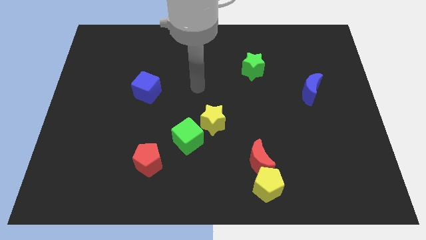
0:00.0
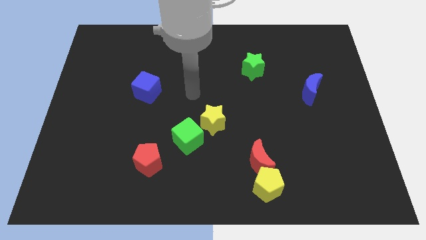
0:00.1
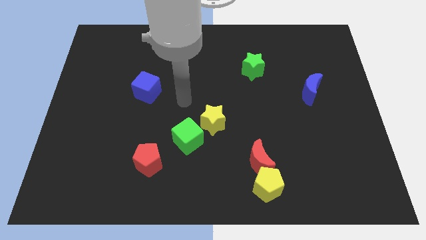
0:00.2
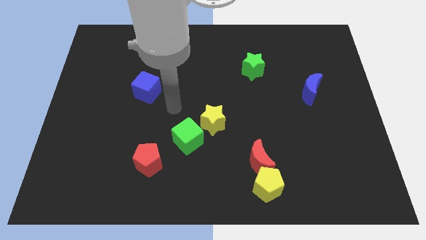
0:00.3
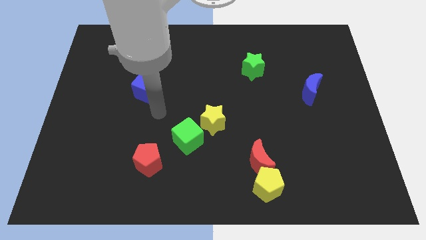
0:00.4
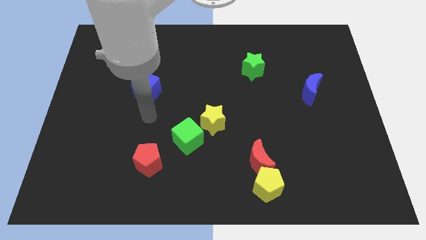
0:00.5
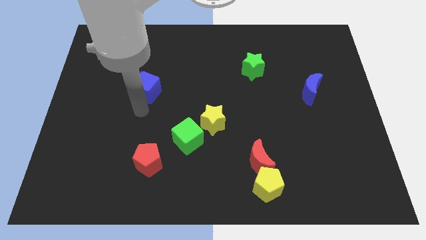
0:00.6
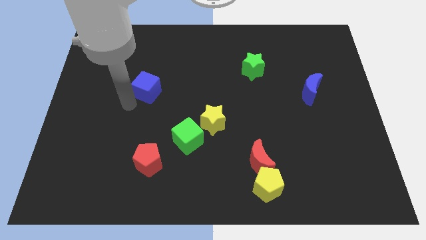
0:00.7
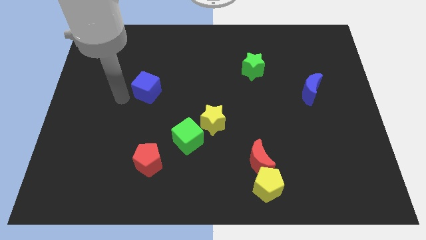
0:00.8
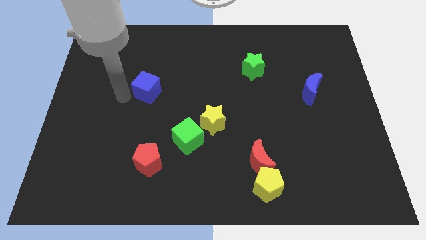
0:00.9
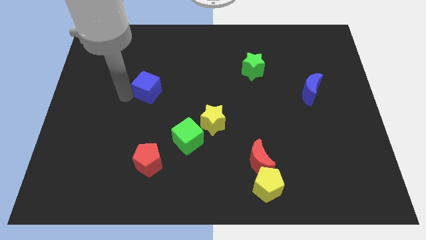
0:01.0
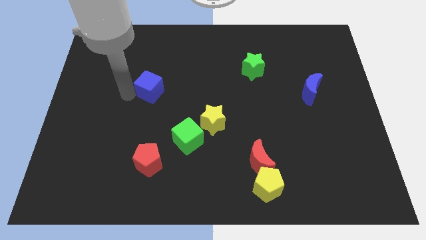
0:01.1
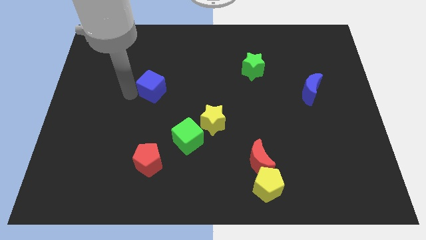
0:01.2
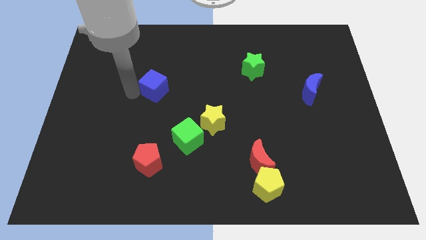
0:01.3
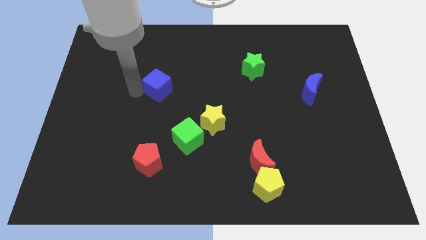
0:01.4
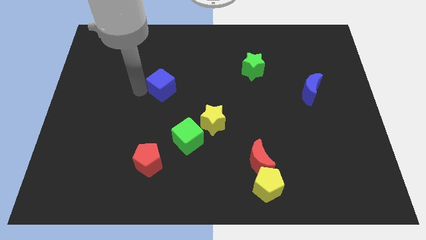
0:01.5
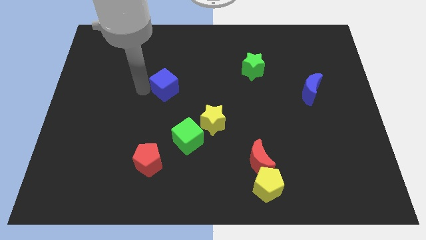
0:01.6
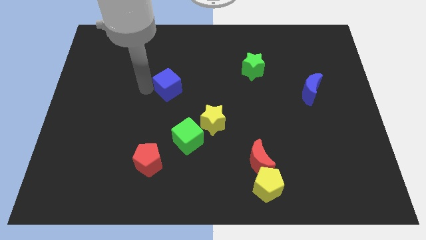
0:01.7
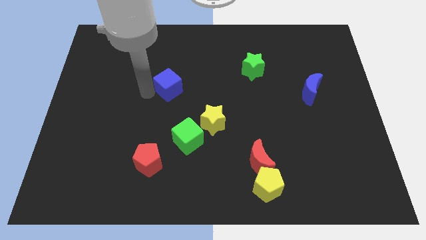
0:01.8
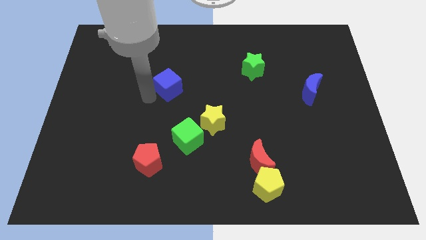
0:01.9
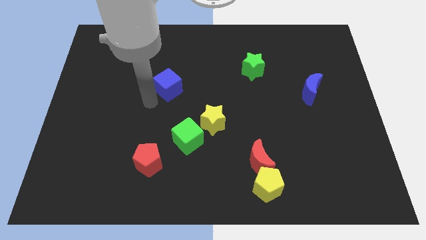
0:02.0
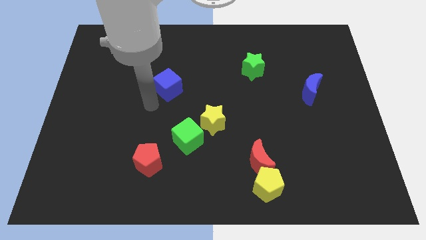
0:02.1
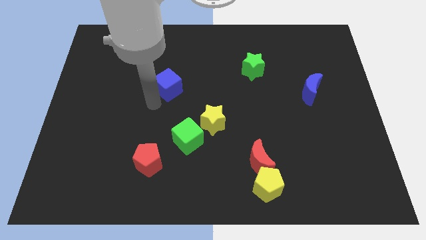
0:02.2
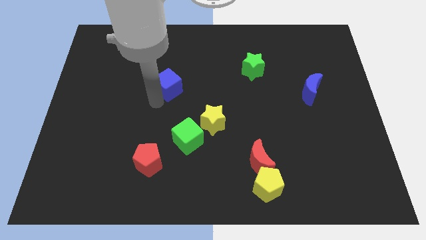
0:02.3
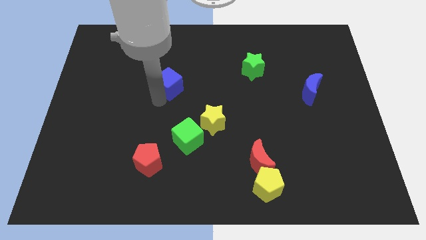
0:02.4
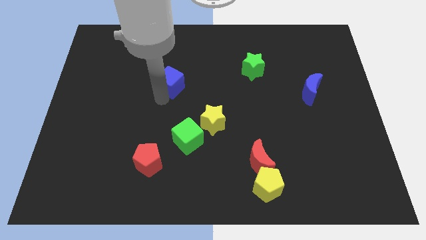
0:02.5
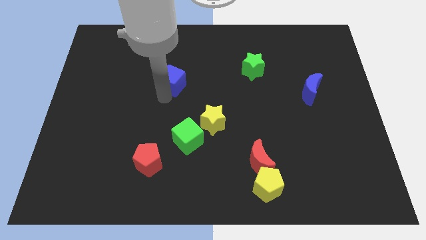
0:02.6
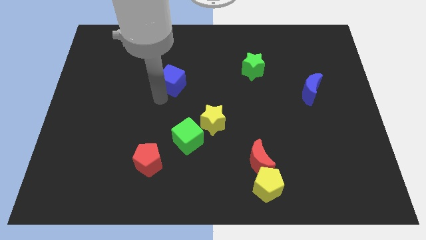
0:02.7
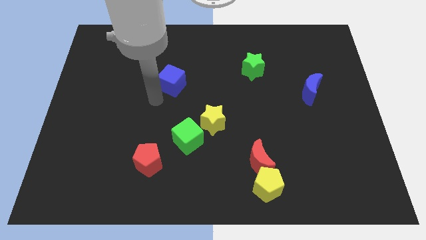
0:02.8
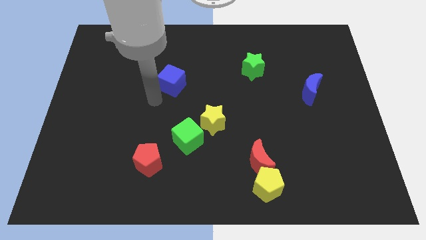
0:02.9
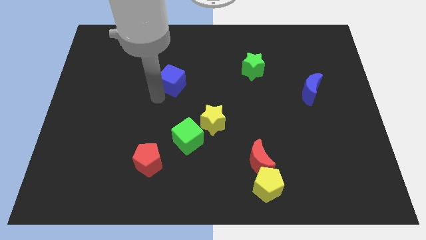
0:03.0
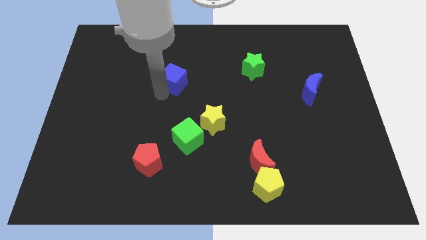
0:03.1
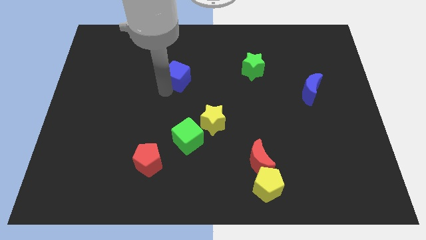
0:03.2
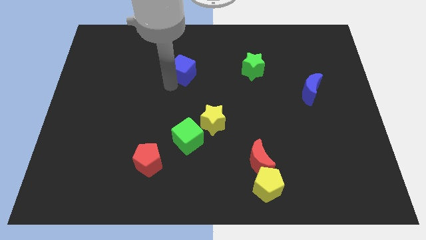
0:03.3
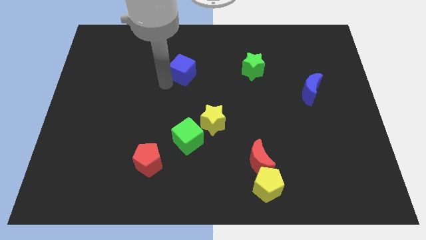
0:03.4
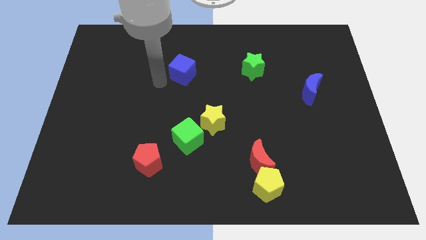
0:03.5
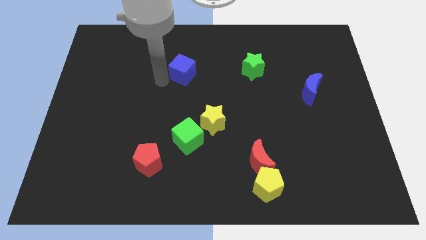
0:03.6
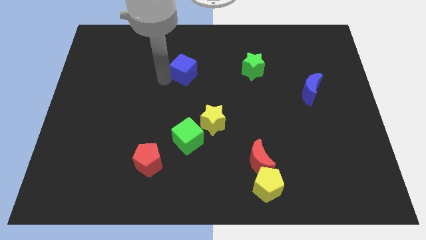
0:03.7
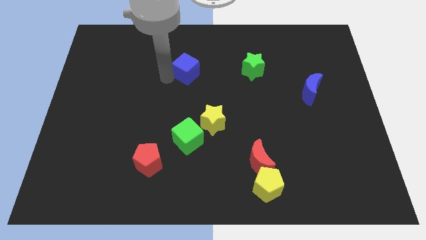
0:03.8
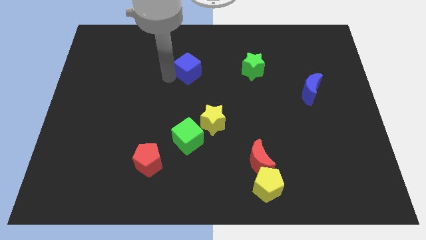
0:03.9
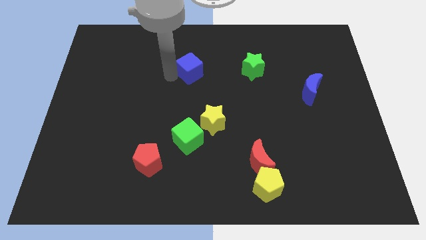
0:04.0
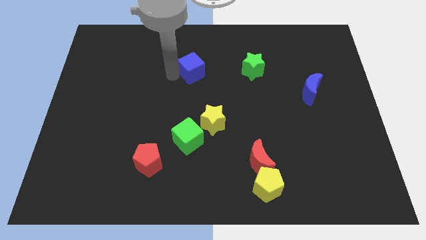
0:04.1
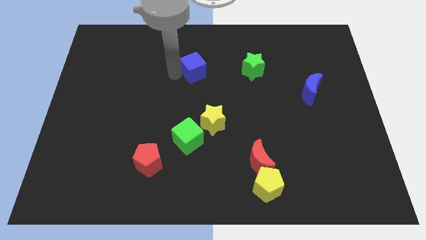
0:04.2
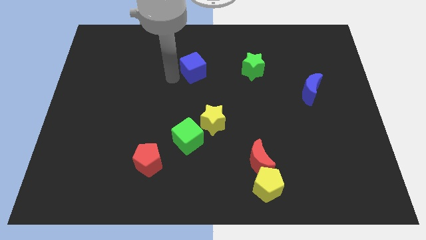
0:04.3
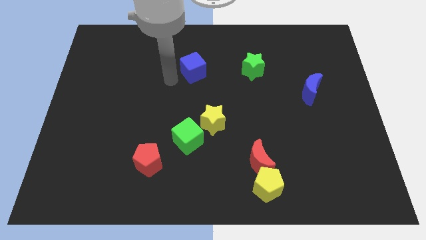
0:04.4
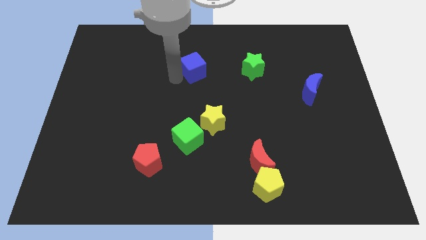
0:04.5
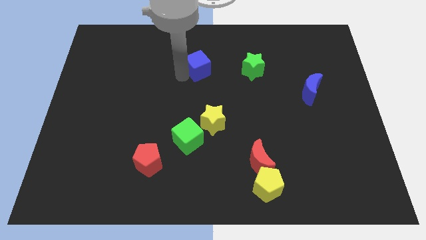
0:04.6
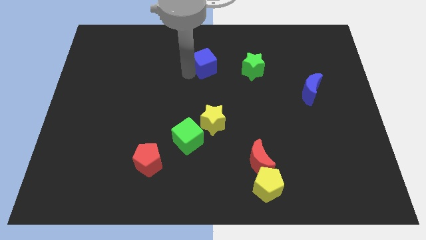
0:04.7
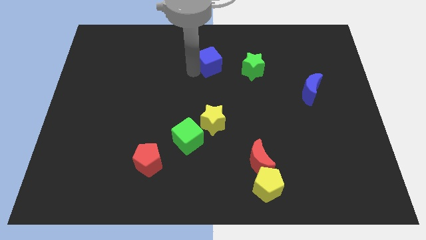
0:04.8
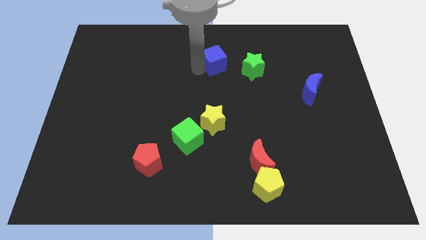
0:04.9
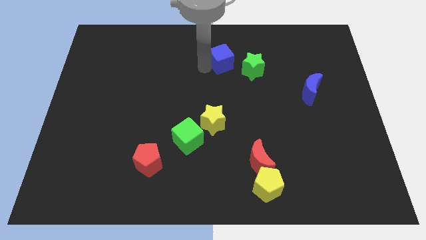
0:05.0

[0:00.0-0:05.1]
push the blue cube to the top left side of the green star

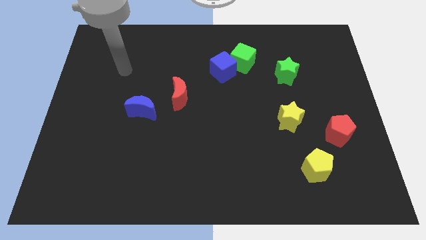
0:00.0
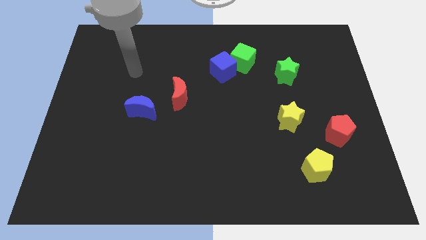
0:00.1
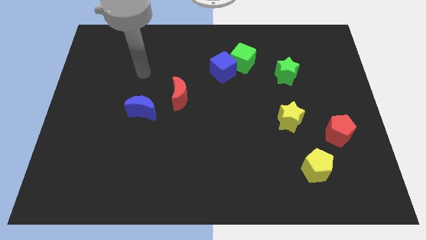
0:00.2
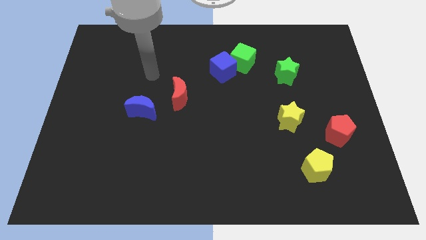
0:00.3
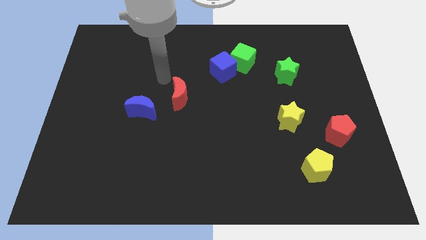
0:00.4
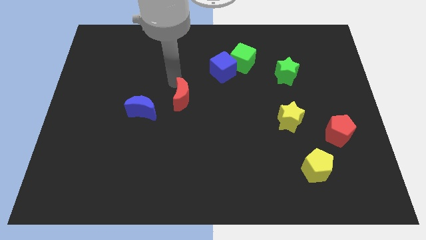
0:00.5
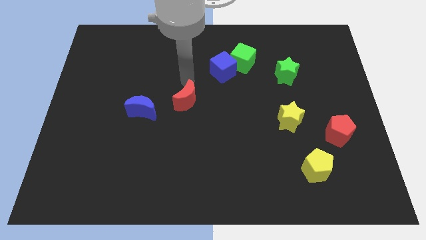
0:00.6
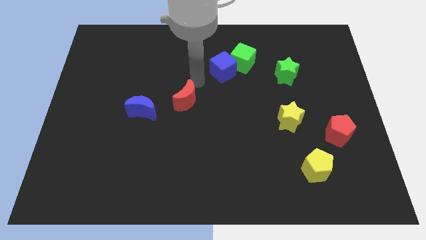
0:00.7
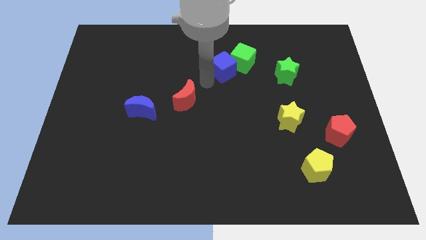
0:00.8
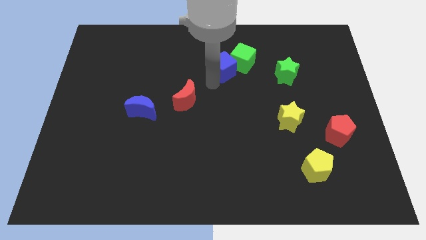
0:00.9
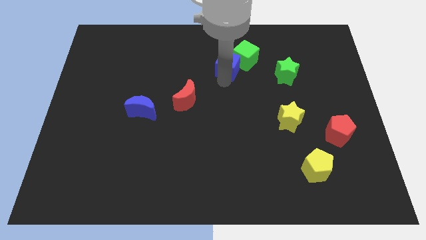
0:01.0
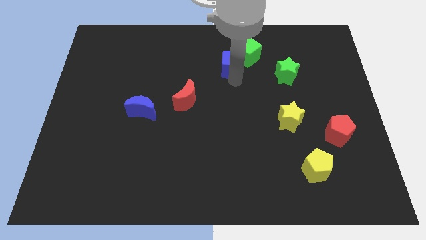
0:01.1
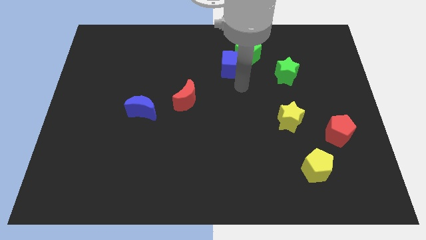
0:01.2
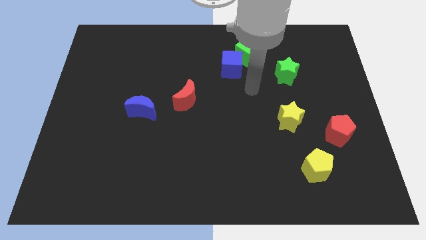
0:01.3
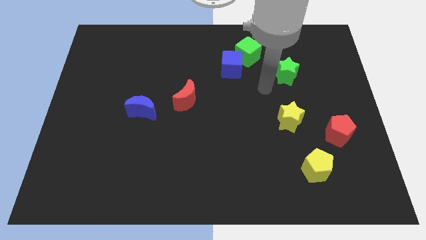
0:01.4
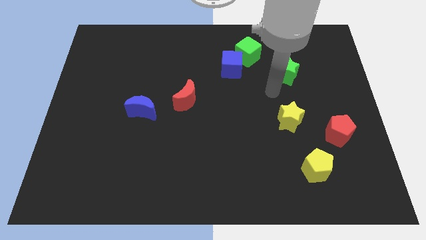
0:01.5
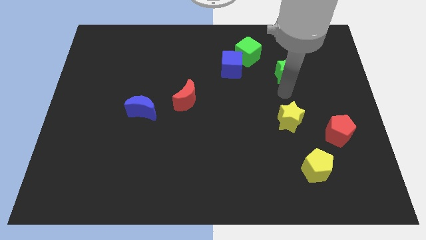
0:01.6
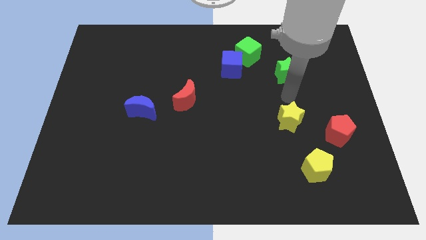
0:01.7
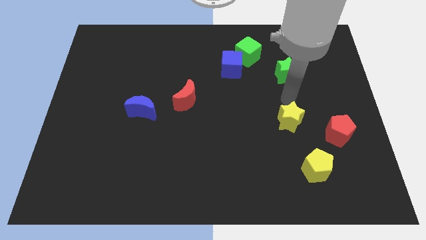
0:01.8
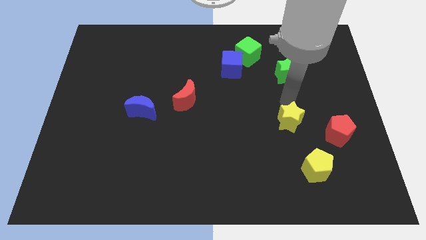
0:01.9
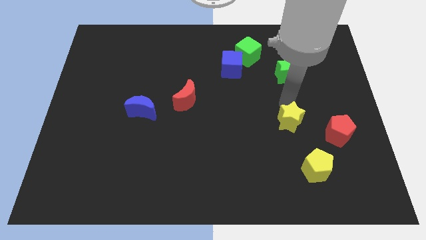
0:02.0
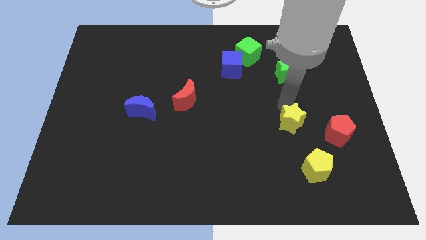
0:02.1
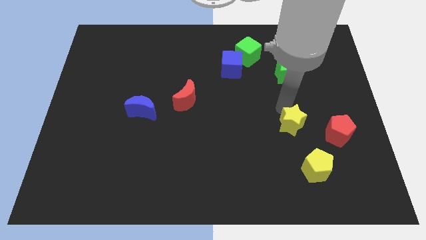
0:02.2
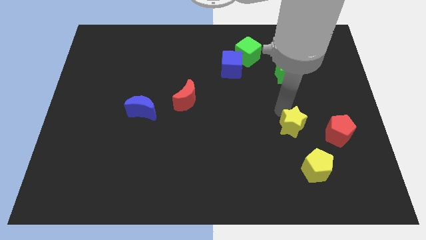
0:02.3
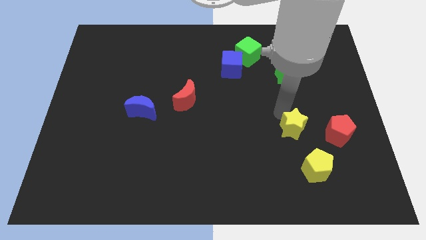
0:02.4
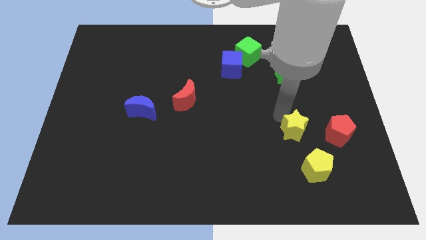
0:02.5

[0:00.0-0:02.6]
put the yellow star to the top left of the yellow pentagon
